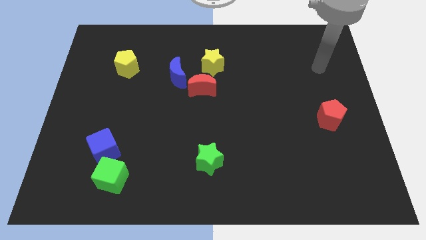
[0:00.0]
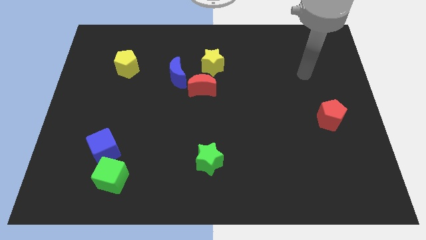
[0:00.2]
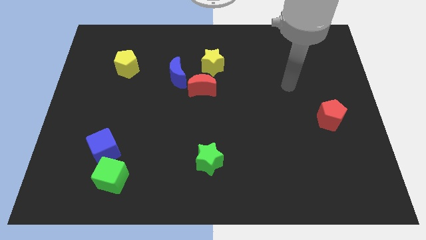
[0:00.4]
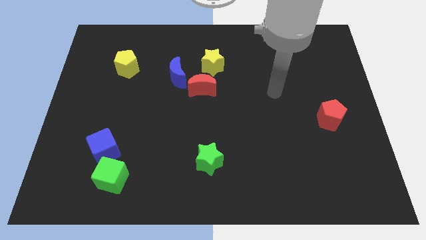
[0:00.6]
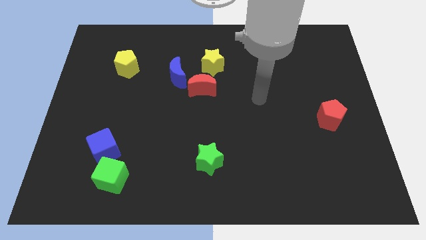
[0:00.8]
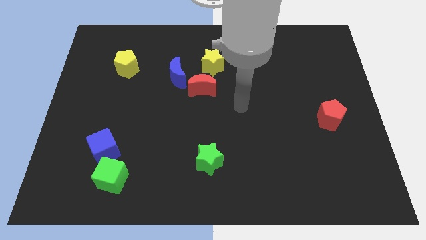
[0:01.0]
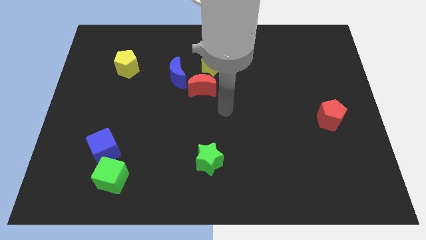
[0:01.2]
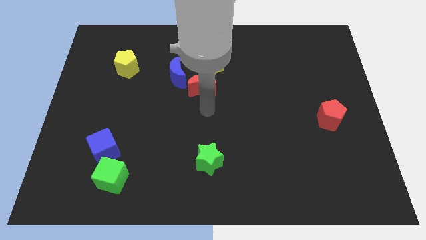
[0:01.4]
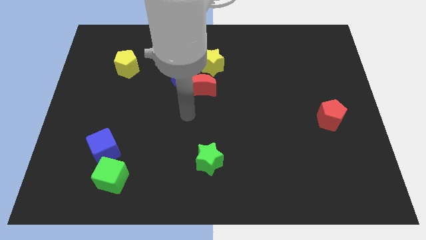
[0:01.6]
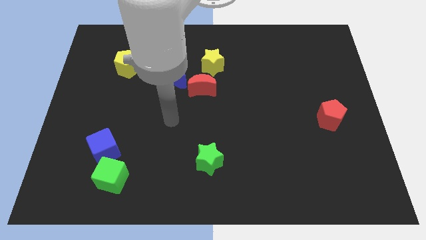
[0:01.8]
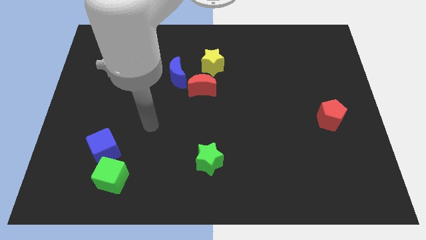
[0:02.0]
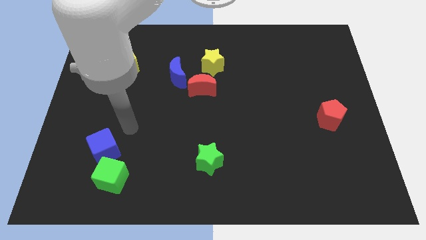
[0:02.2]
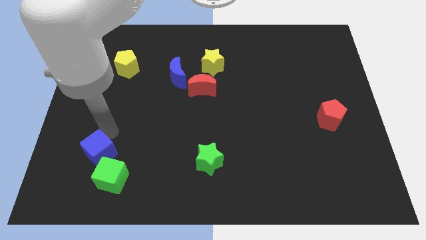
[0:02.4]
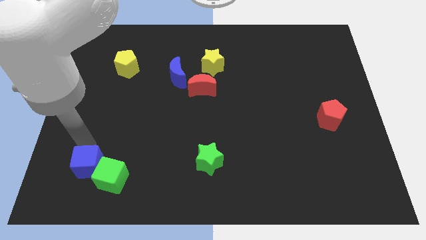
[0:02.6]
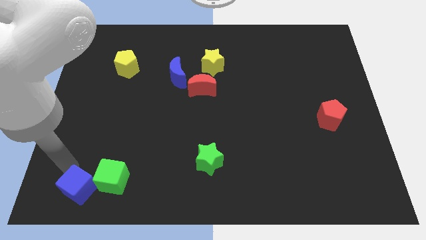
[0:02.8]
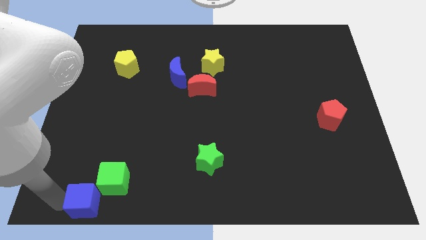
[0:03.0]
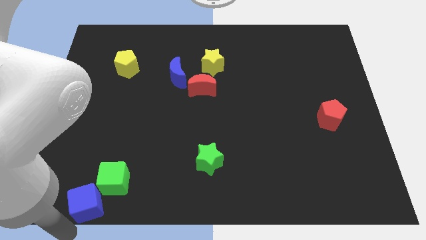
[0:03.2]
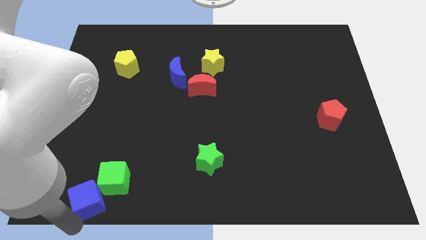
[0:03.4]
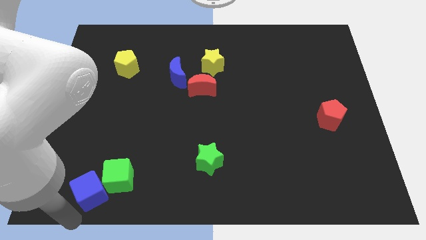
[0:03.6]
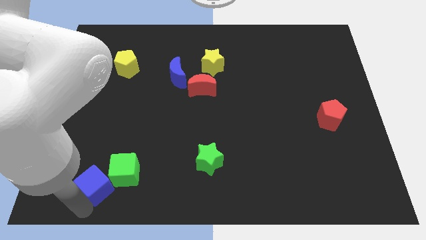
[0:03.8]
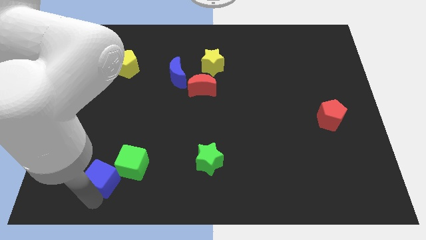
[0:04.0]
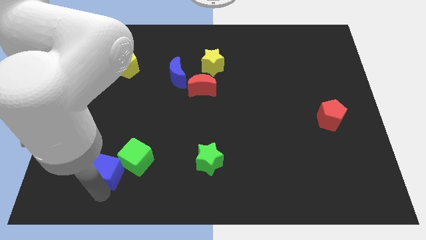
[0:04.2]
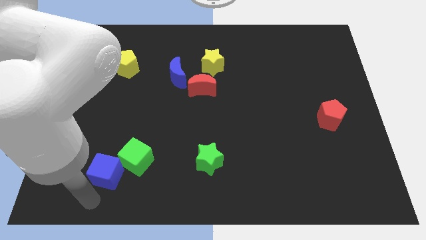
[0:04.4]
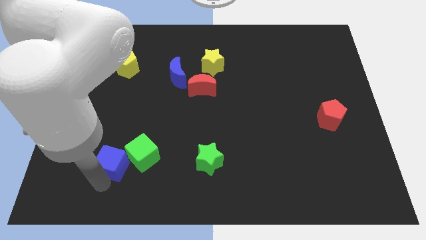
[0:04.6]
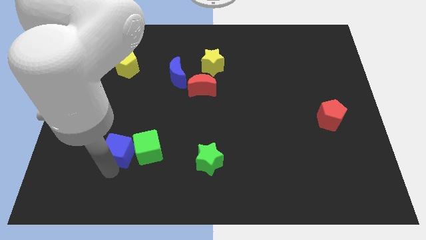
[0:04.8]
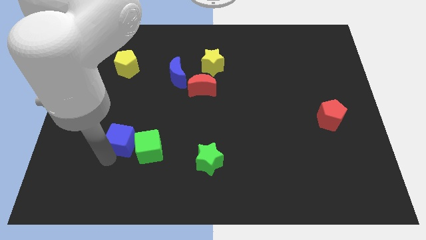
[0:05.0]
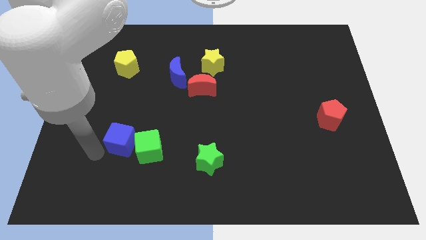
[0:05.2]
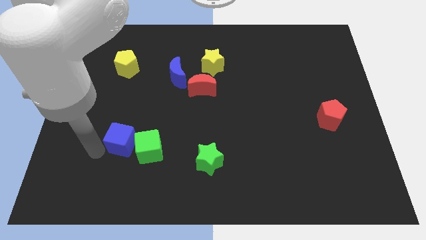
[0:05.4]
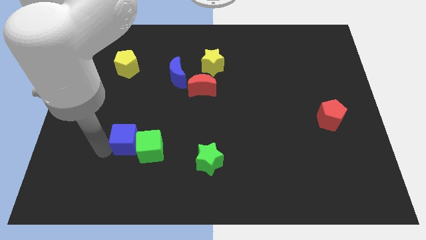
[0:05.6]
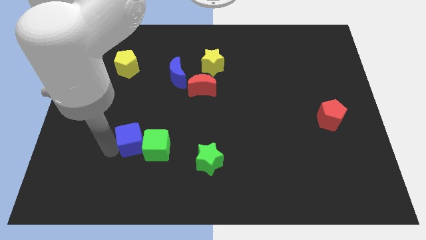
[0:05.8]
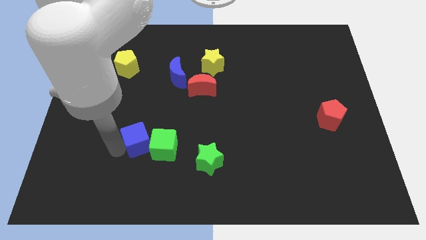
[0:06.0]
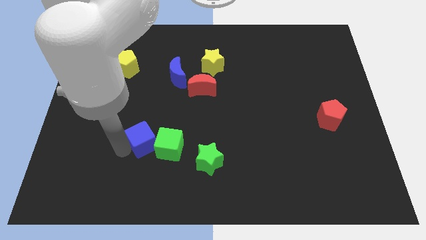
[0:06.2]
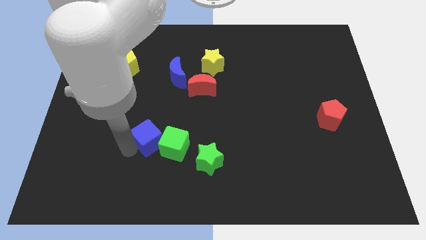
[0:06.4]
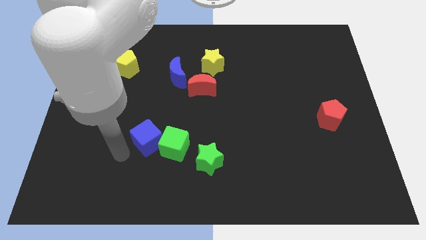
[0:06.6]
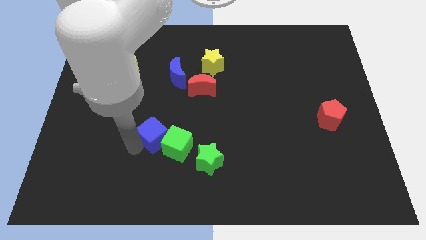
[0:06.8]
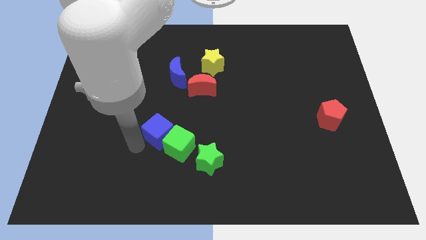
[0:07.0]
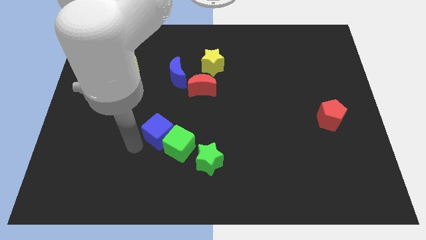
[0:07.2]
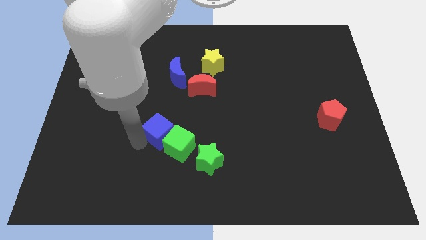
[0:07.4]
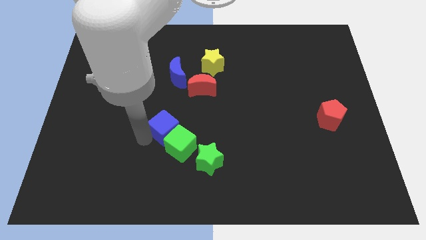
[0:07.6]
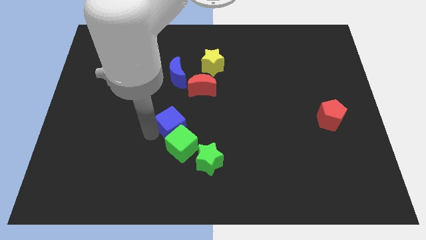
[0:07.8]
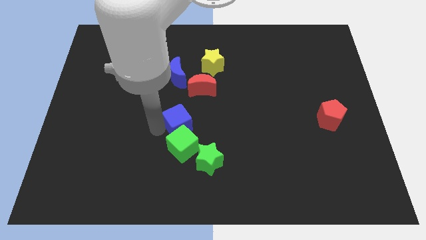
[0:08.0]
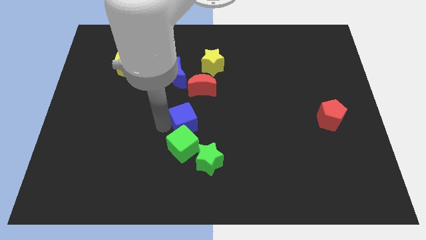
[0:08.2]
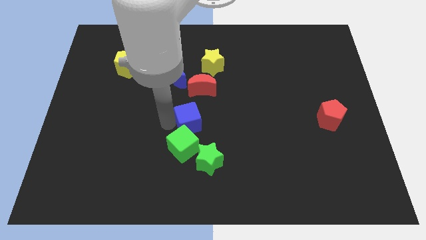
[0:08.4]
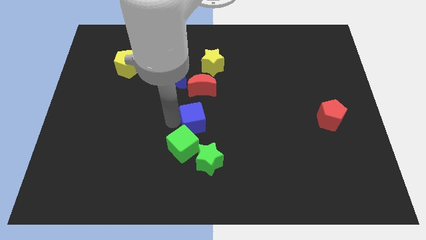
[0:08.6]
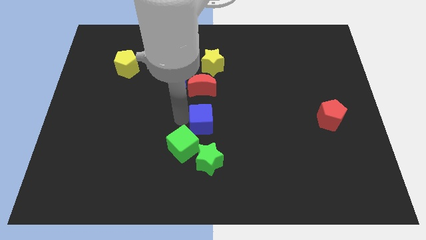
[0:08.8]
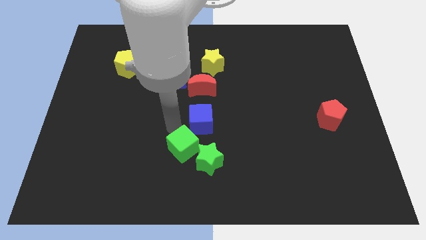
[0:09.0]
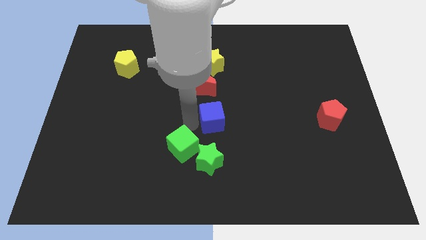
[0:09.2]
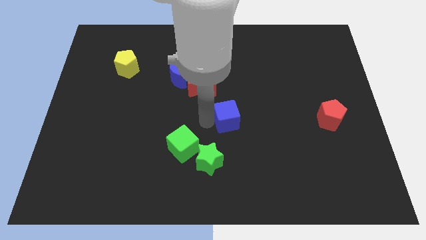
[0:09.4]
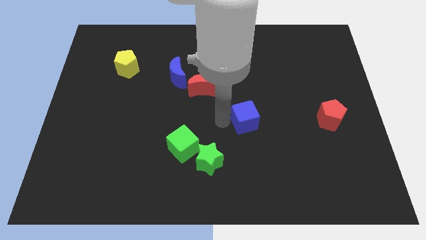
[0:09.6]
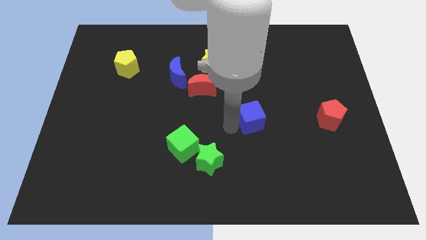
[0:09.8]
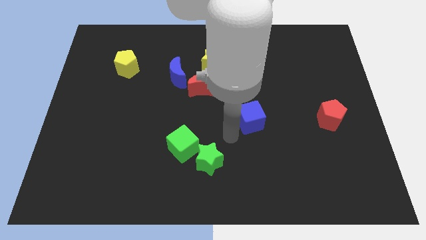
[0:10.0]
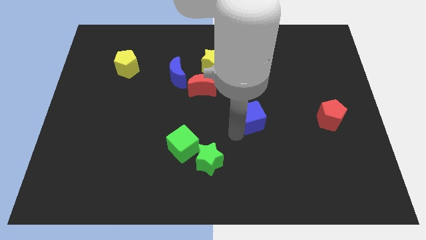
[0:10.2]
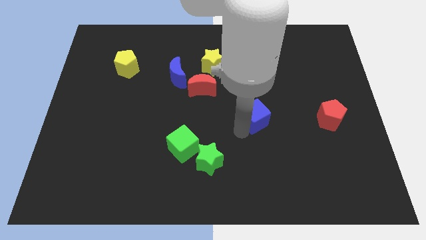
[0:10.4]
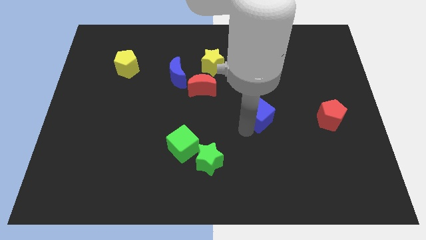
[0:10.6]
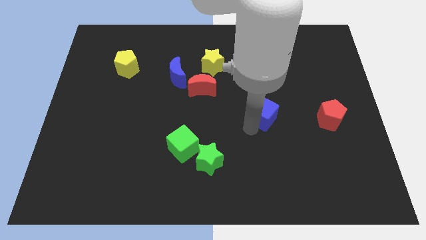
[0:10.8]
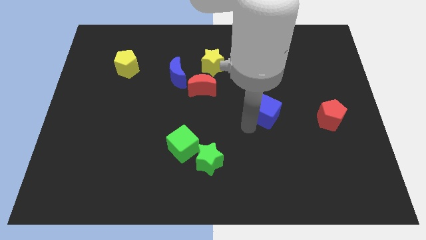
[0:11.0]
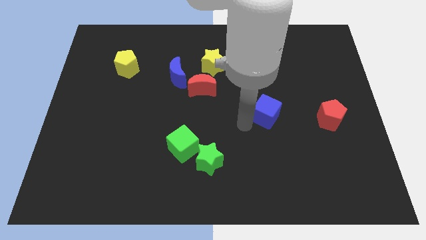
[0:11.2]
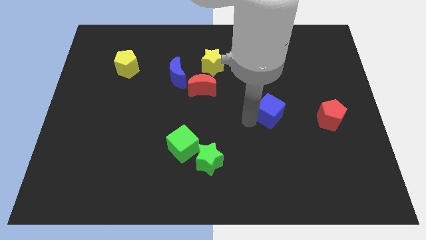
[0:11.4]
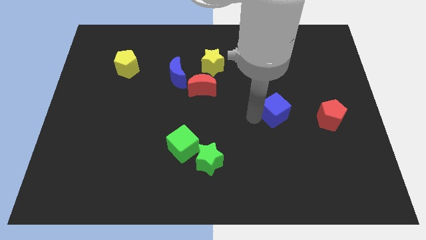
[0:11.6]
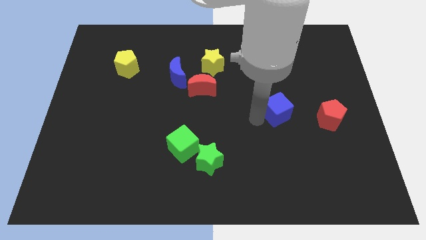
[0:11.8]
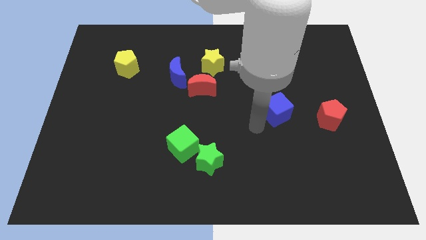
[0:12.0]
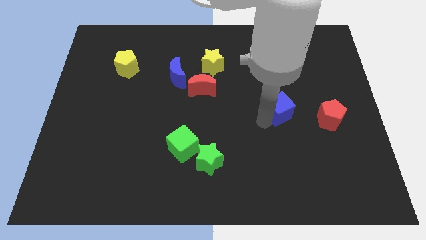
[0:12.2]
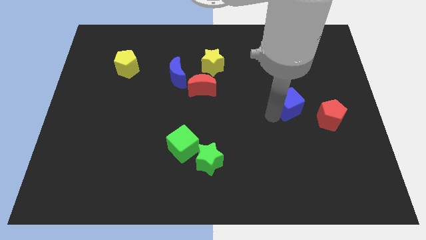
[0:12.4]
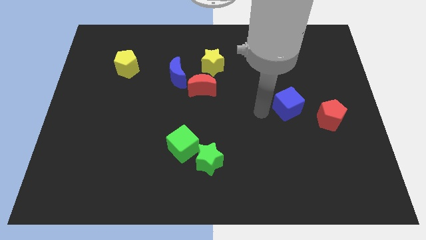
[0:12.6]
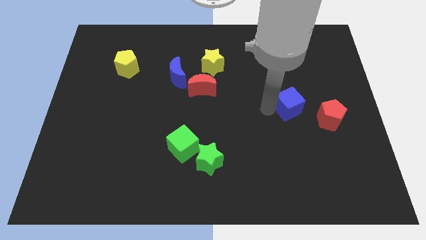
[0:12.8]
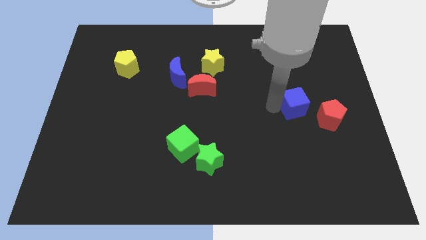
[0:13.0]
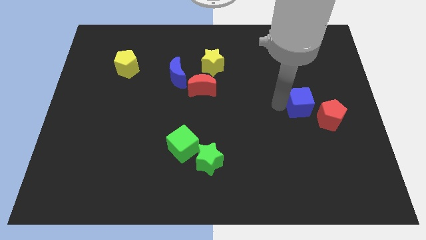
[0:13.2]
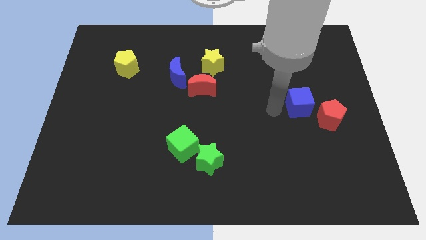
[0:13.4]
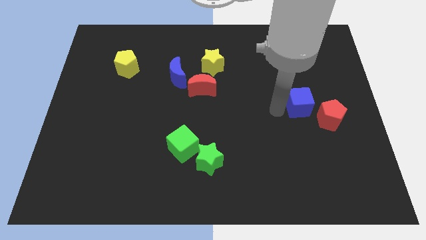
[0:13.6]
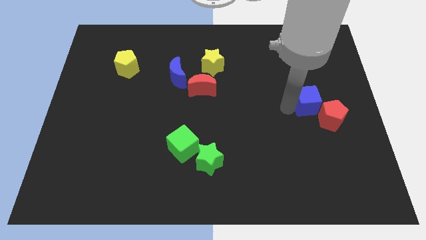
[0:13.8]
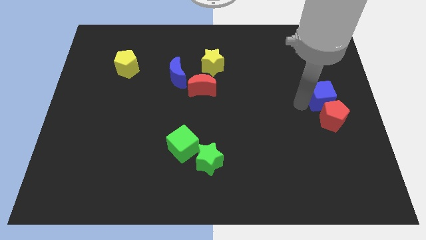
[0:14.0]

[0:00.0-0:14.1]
put the blue cube to the right side of the board

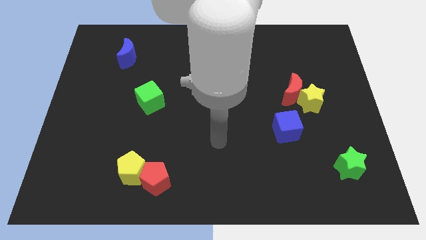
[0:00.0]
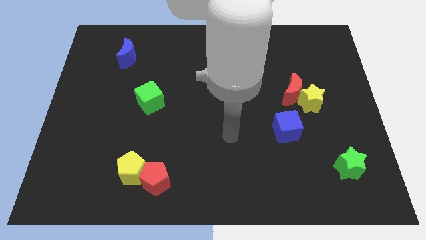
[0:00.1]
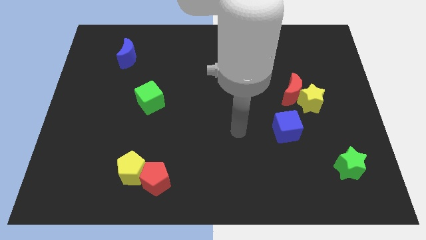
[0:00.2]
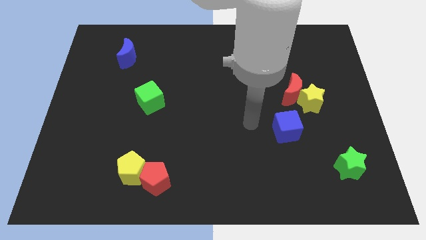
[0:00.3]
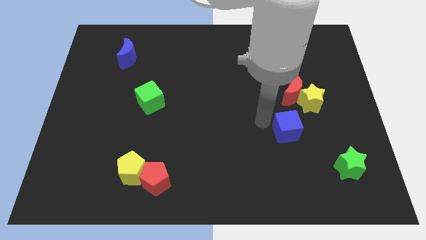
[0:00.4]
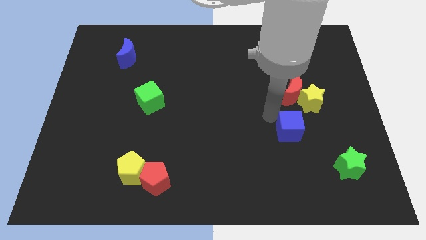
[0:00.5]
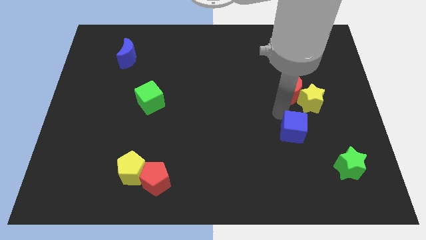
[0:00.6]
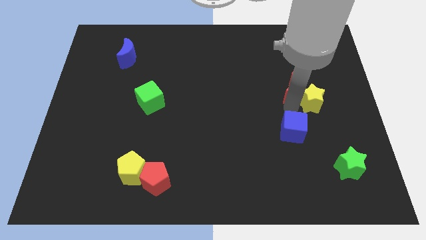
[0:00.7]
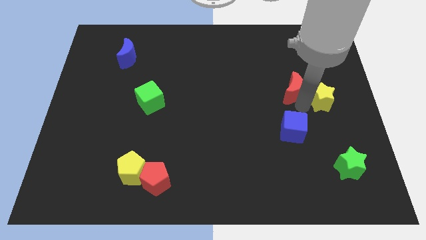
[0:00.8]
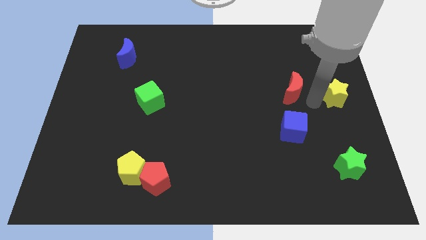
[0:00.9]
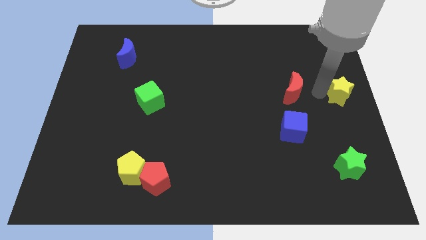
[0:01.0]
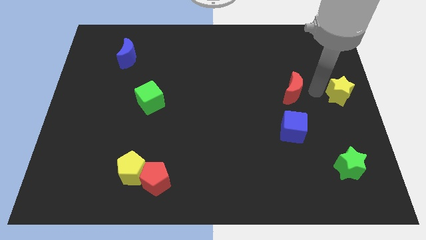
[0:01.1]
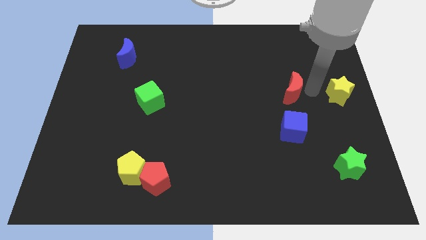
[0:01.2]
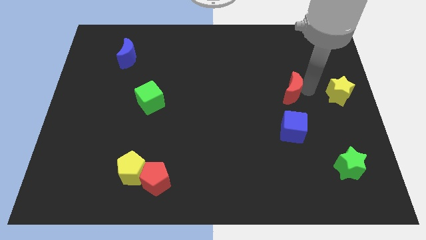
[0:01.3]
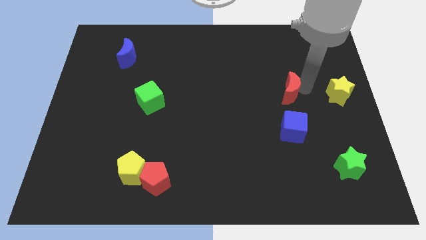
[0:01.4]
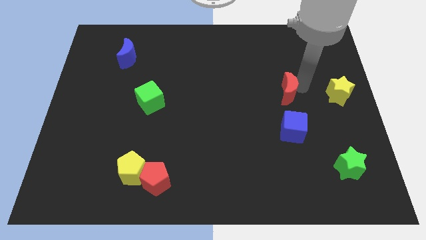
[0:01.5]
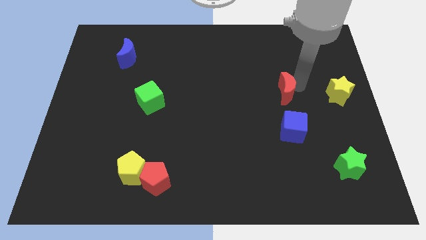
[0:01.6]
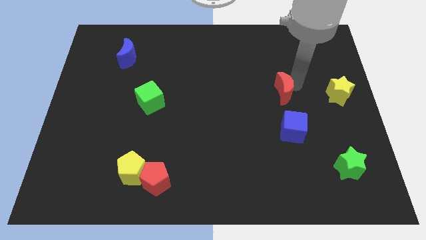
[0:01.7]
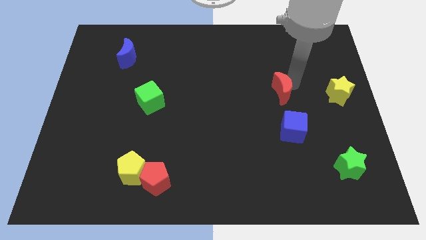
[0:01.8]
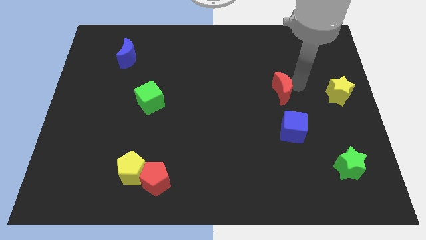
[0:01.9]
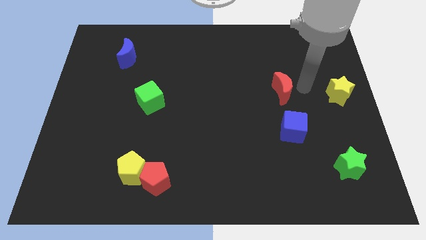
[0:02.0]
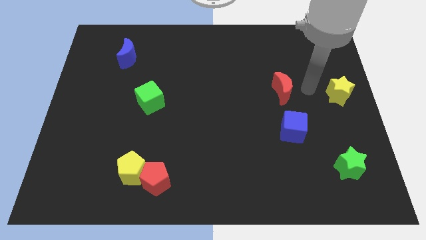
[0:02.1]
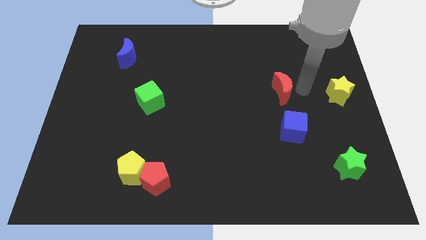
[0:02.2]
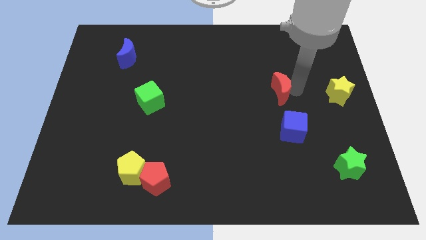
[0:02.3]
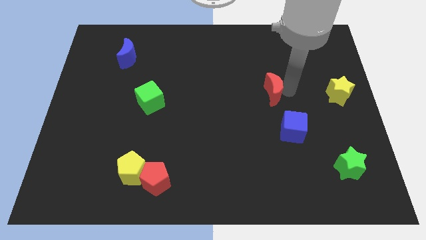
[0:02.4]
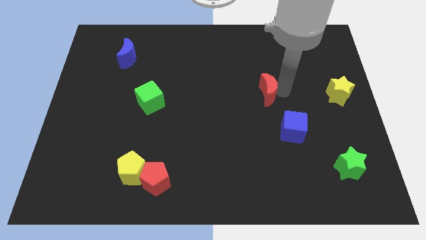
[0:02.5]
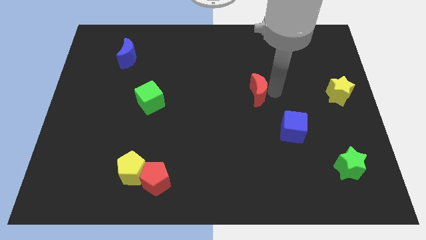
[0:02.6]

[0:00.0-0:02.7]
move the red moon to the center of the board
